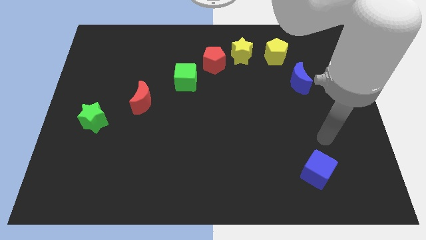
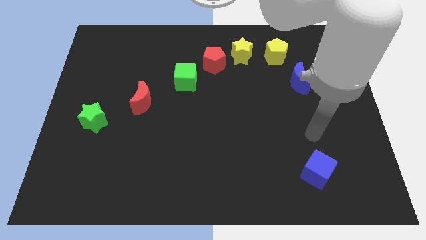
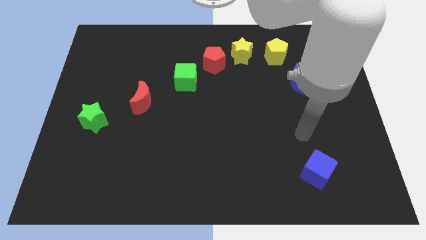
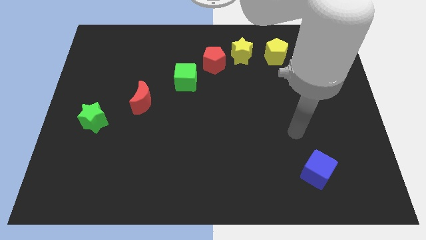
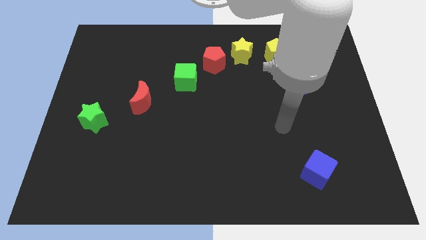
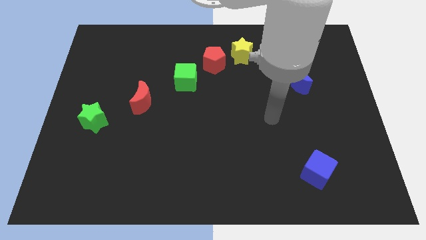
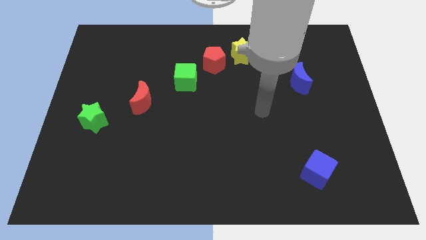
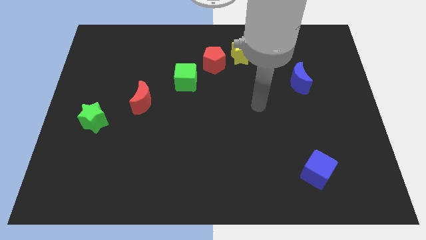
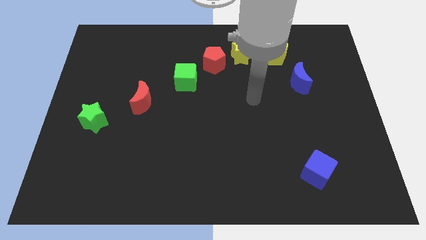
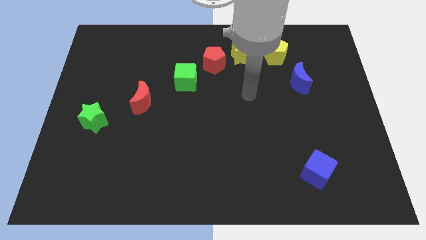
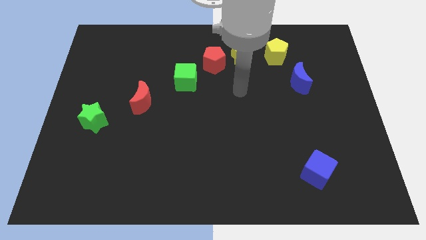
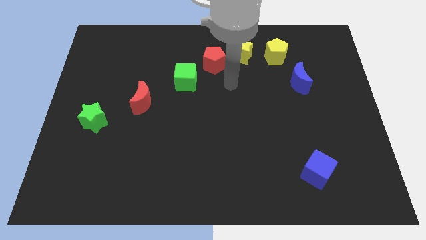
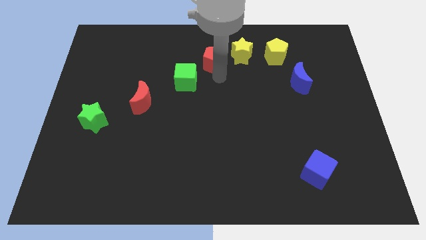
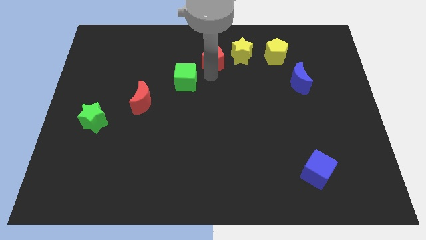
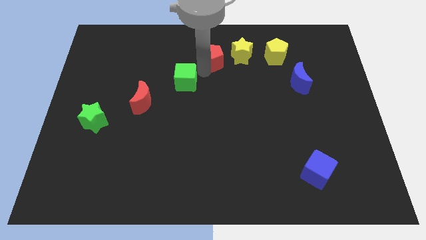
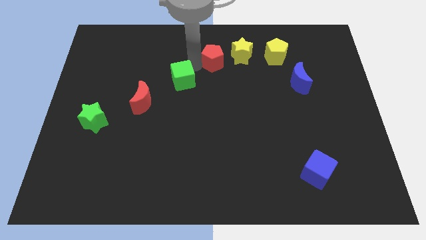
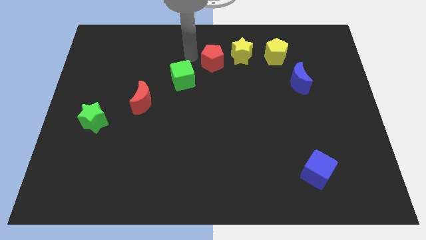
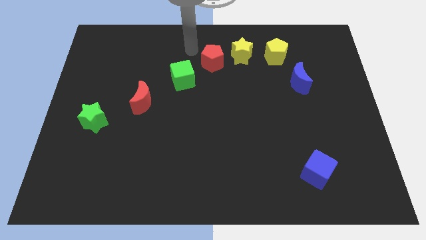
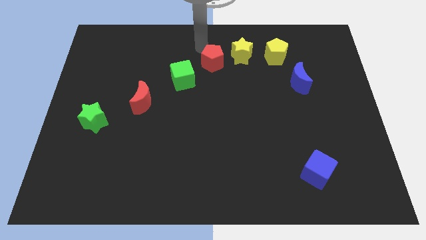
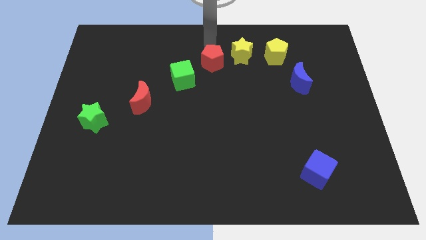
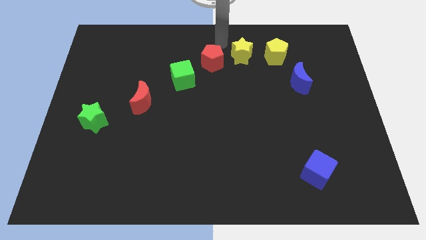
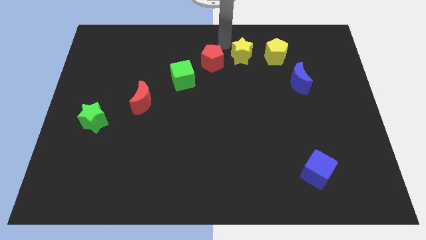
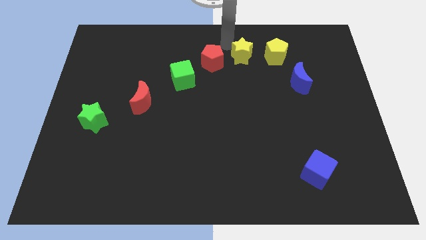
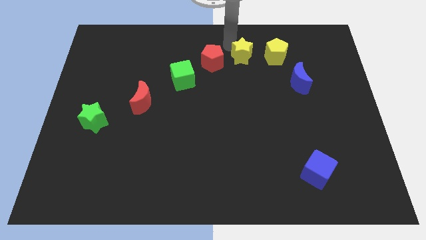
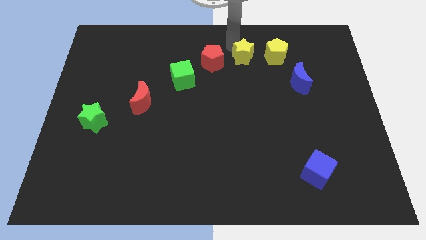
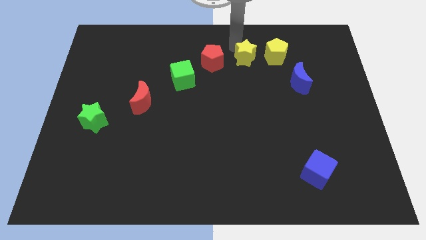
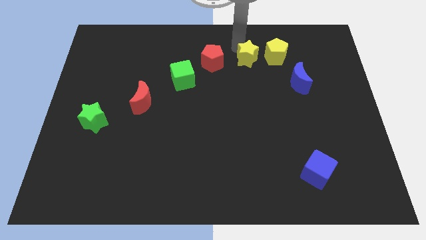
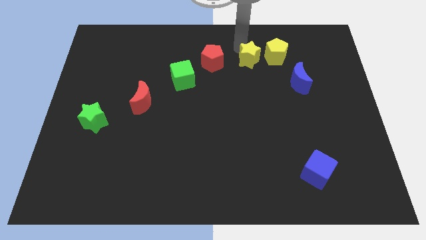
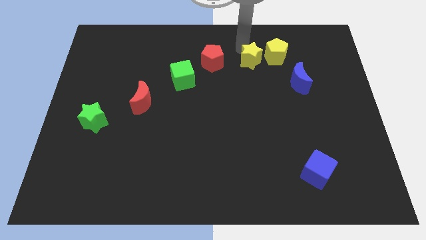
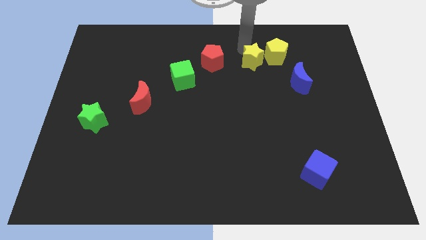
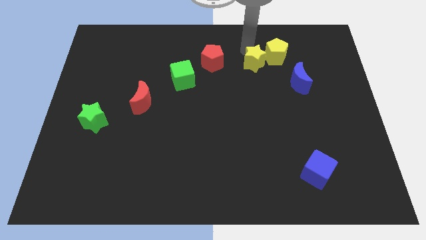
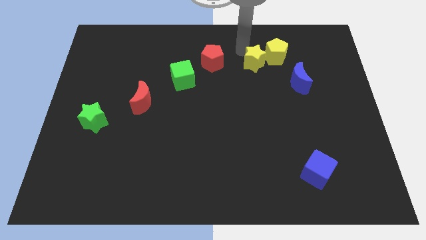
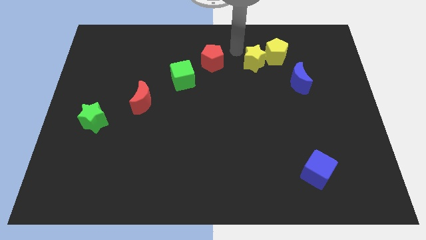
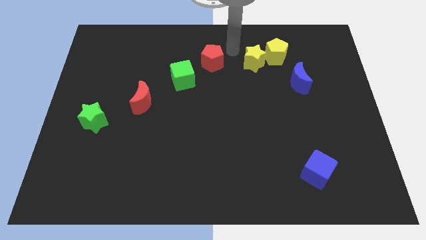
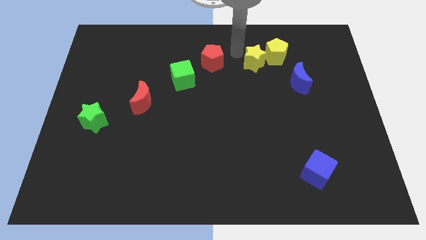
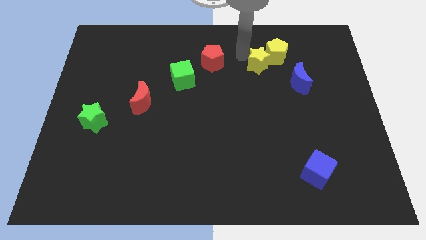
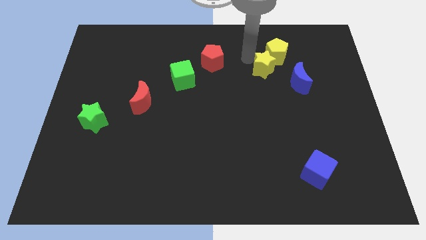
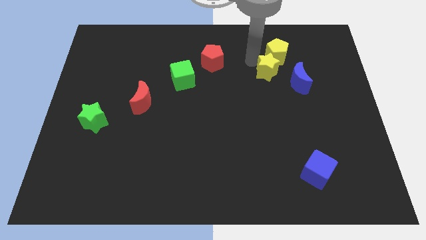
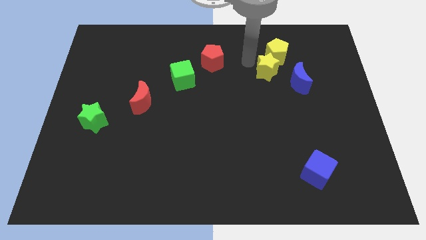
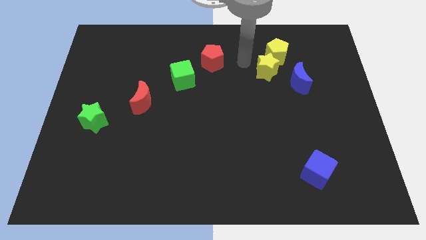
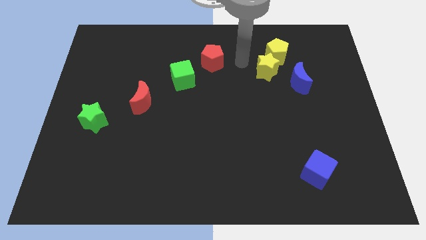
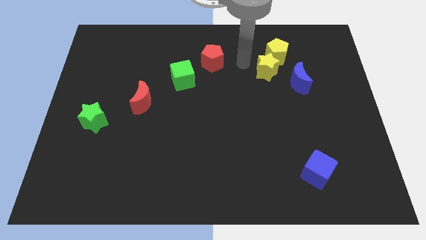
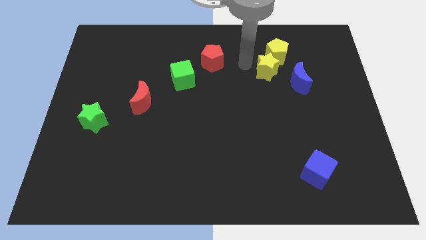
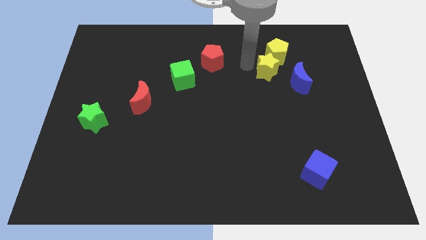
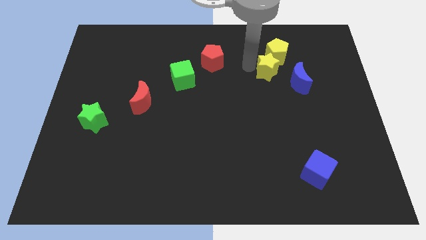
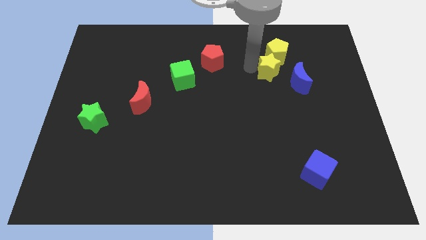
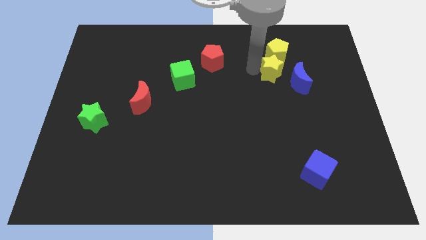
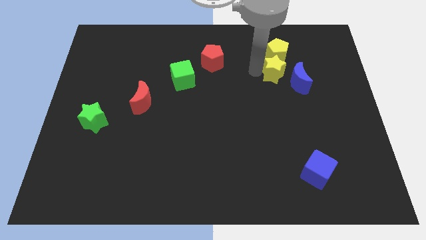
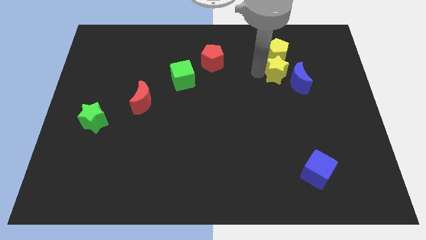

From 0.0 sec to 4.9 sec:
push the yellow star to the blue moon

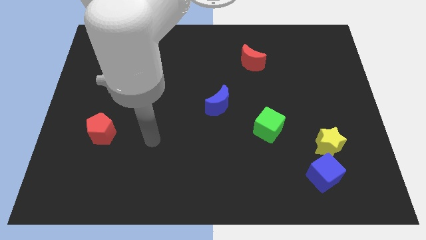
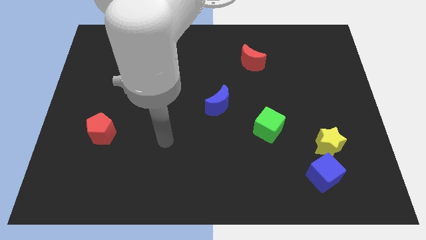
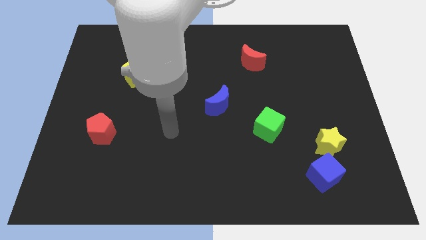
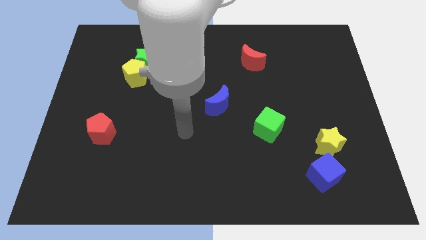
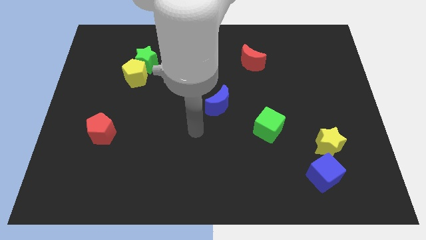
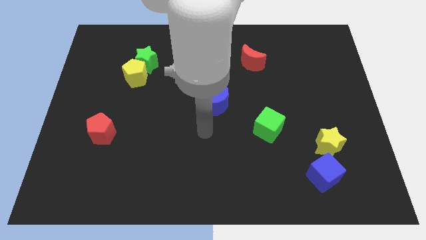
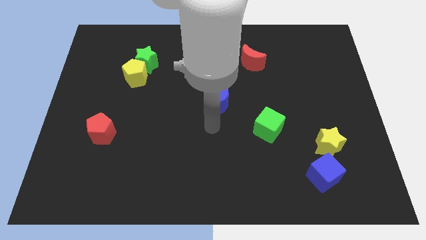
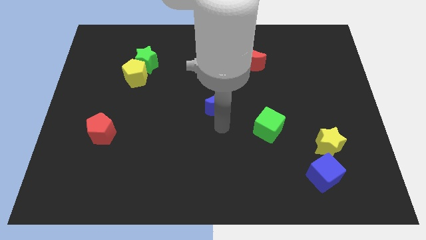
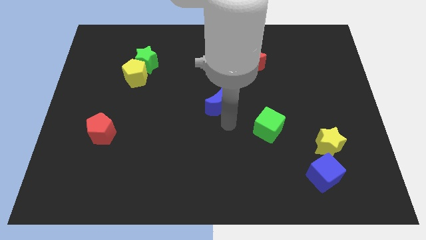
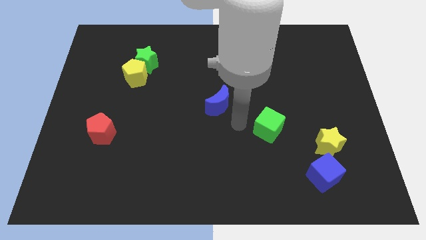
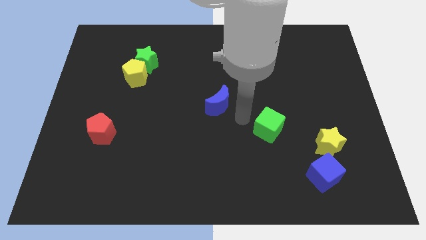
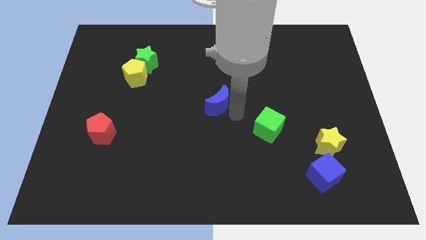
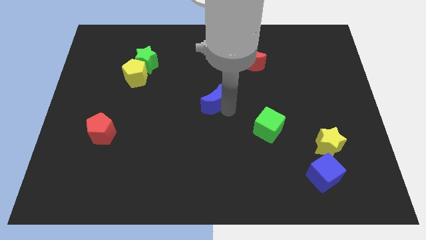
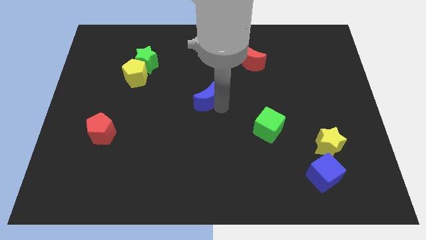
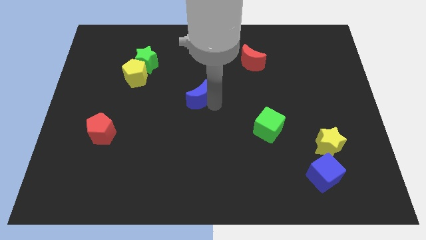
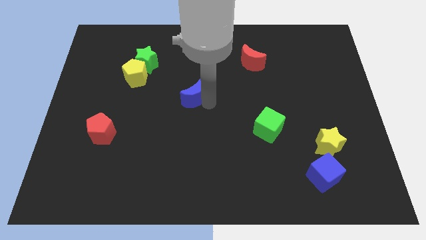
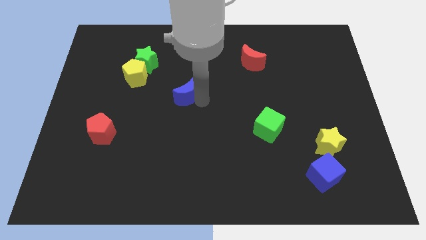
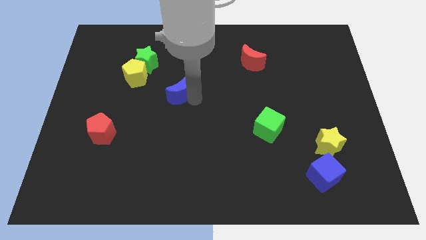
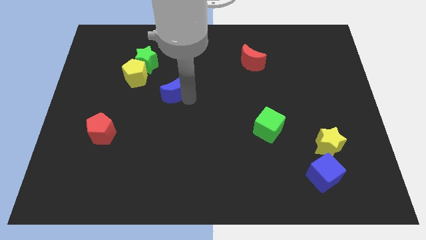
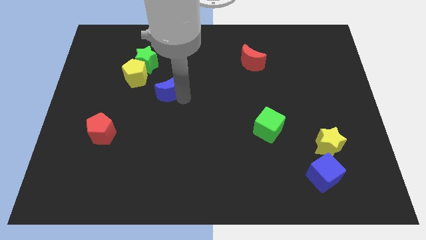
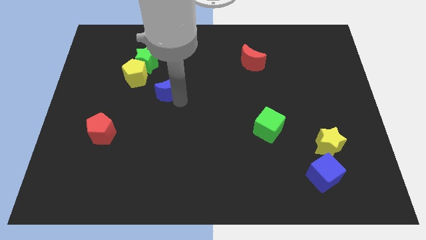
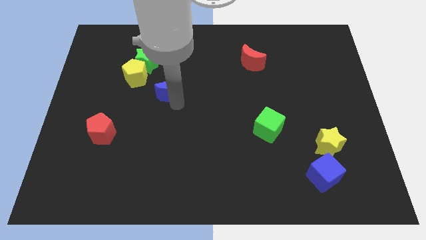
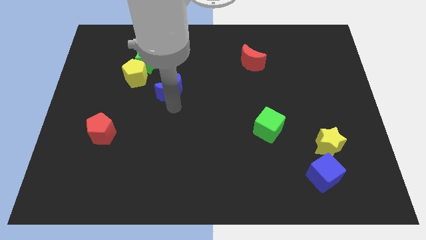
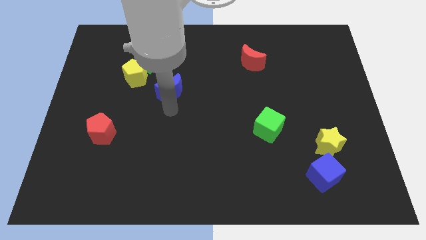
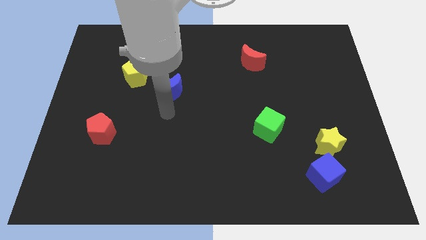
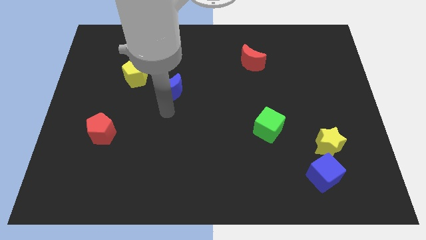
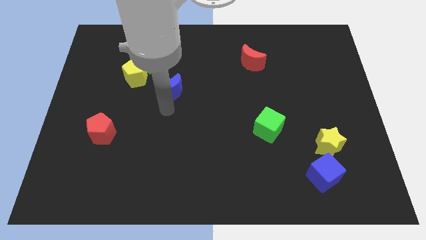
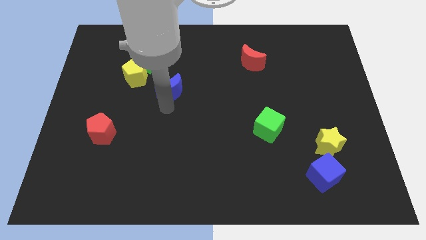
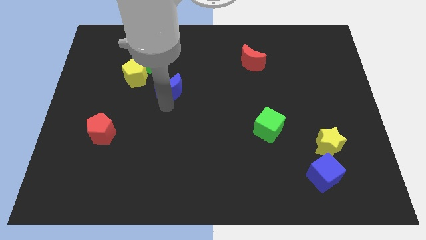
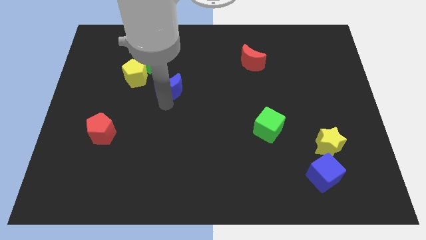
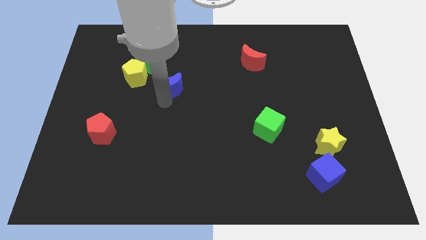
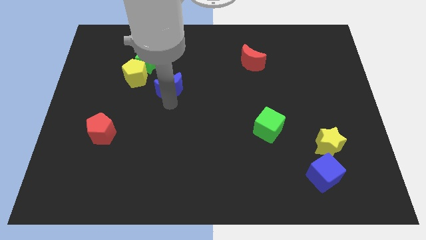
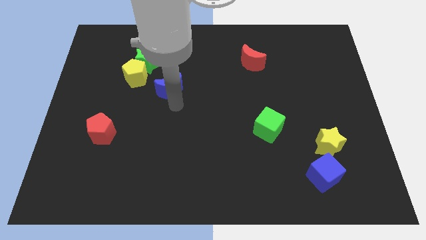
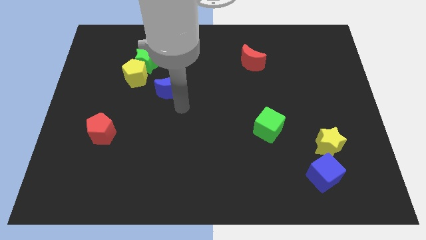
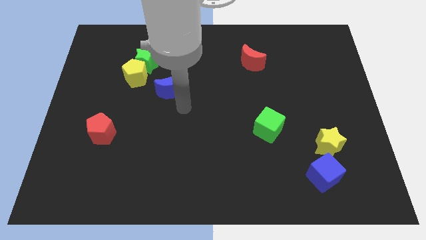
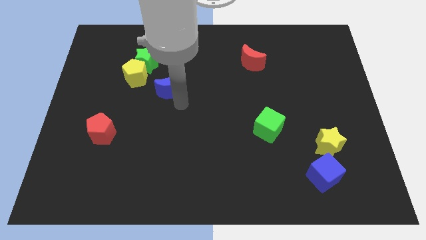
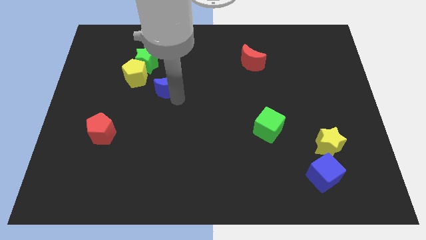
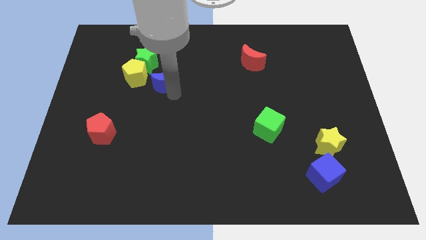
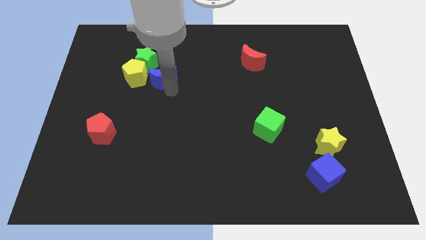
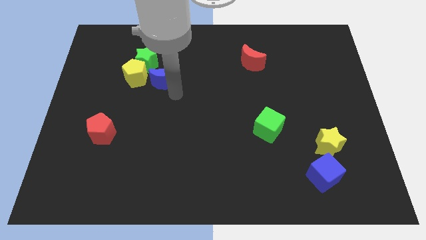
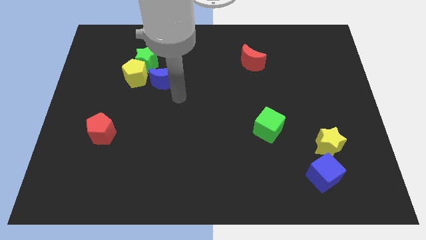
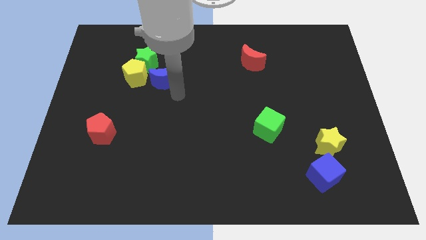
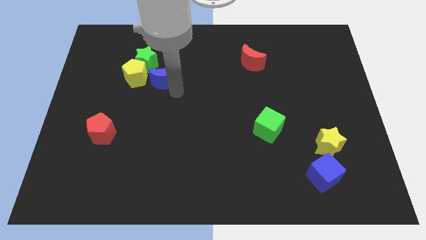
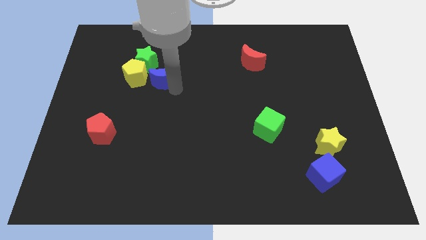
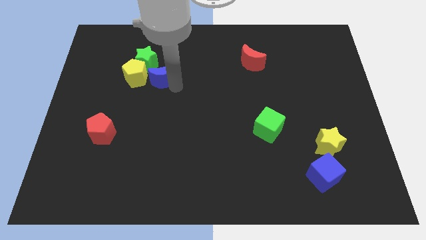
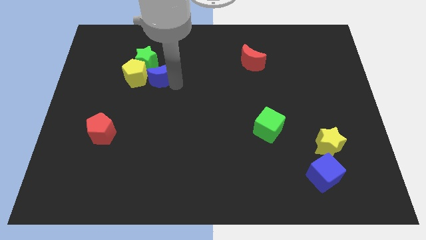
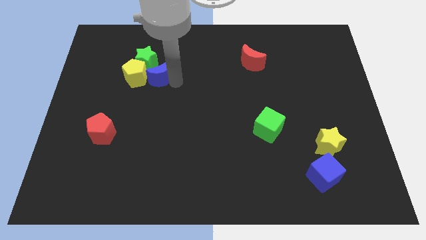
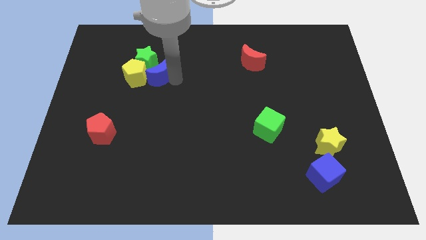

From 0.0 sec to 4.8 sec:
push the blue moon next to the green star
